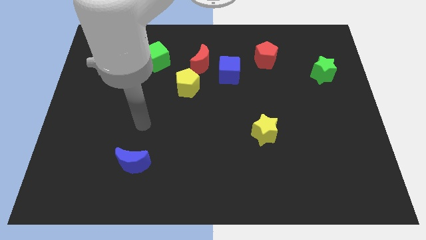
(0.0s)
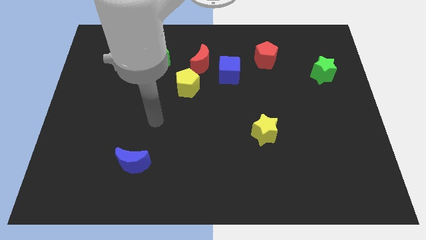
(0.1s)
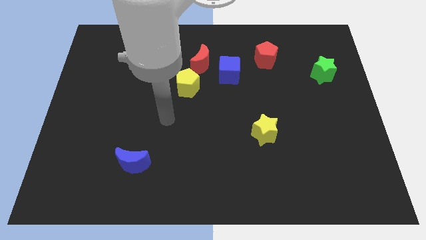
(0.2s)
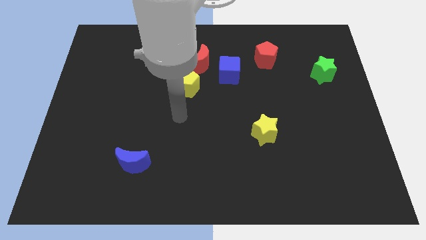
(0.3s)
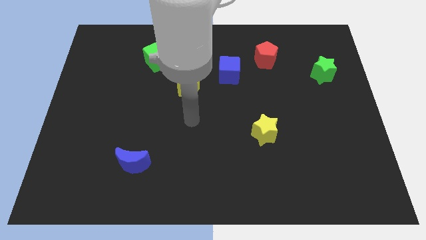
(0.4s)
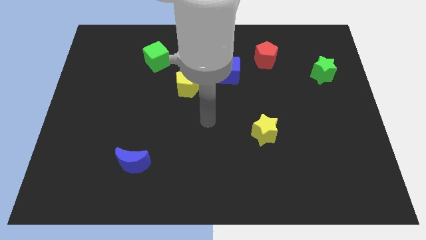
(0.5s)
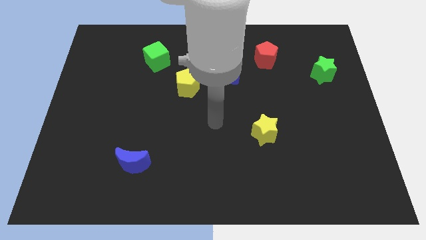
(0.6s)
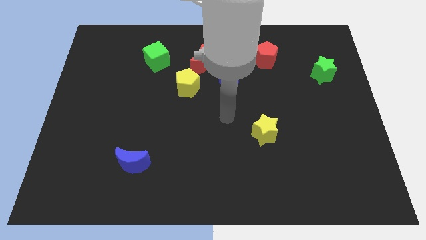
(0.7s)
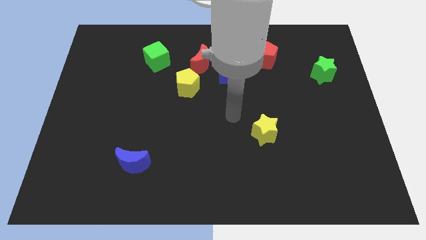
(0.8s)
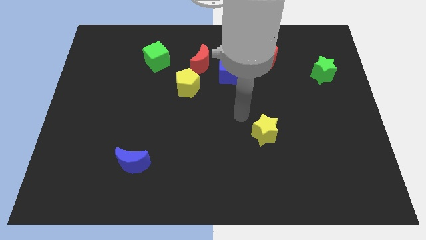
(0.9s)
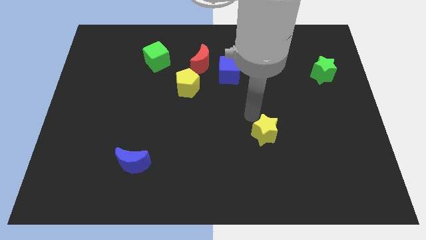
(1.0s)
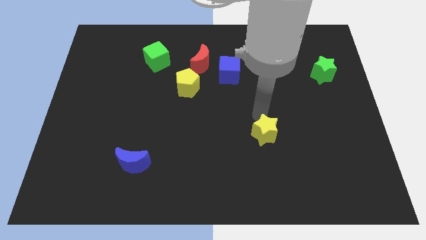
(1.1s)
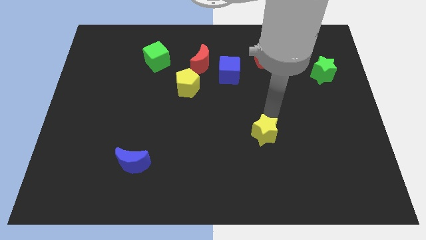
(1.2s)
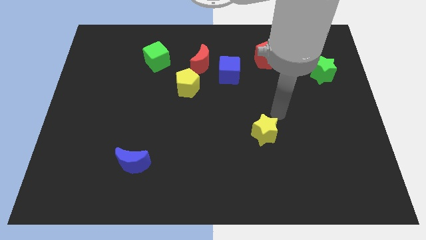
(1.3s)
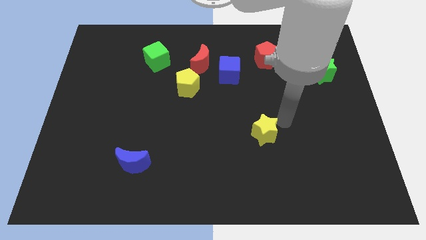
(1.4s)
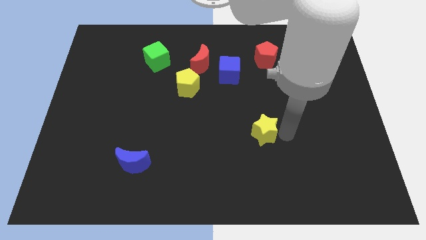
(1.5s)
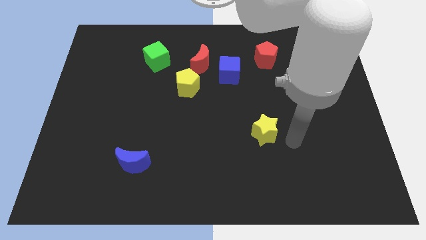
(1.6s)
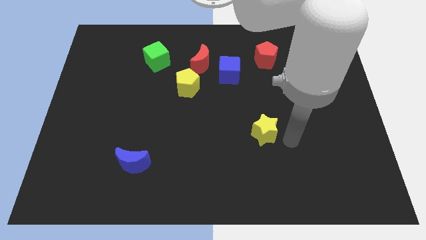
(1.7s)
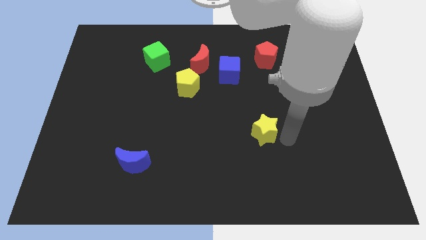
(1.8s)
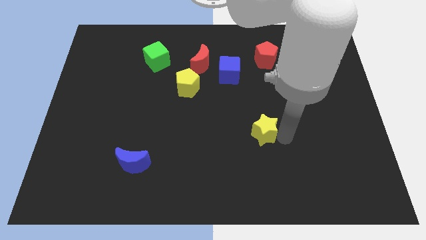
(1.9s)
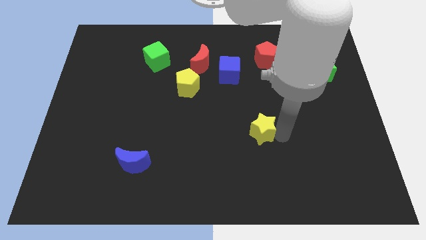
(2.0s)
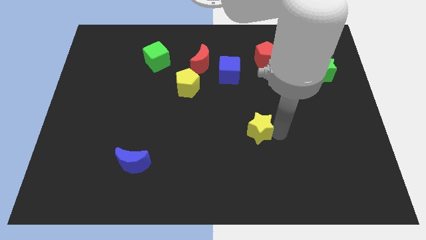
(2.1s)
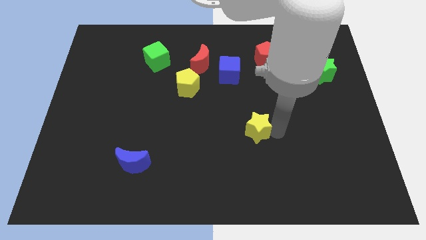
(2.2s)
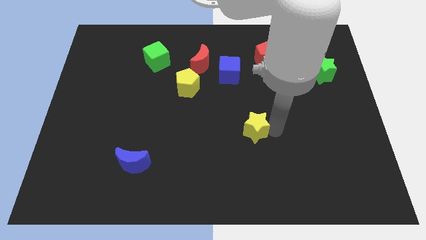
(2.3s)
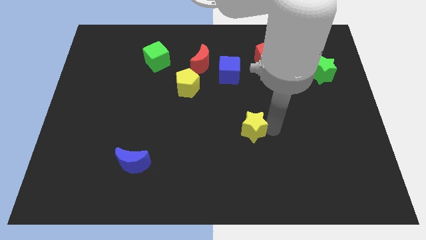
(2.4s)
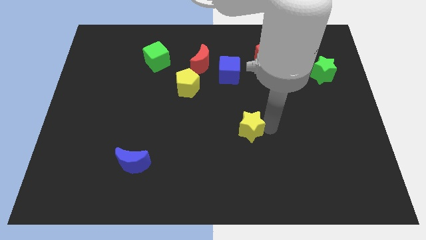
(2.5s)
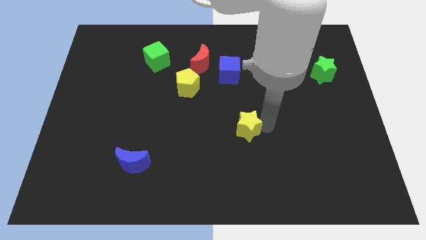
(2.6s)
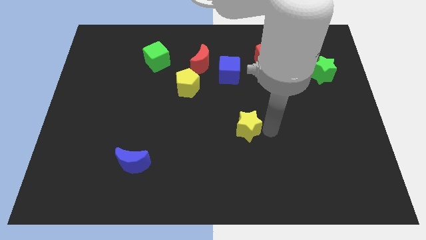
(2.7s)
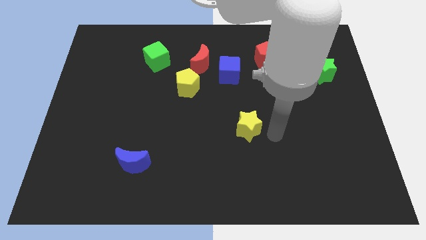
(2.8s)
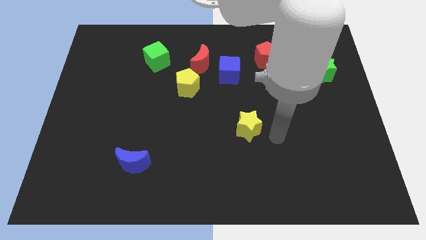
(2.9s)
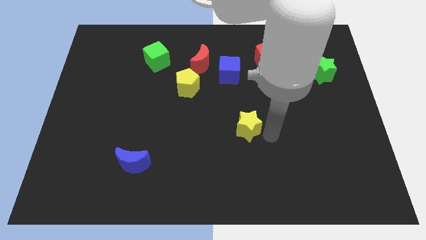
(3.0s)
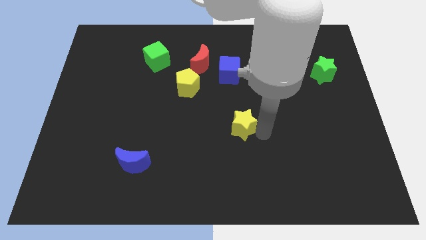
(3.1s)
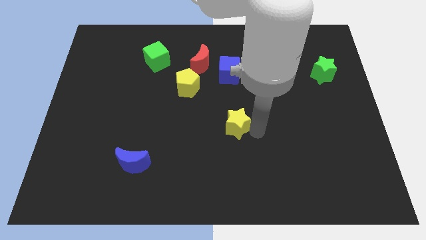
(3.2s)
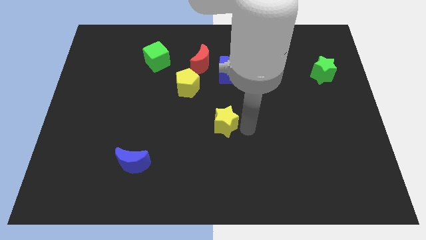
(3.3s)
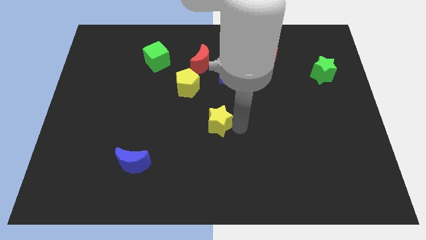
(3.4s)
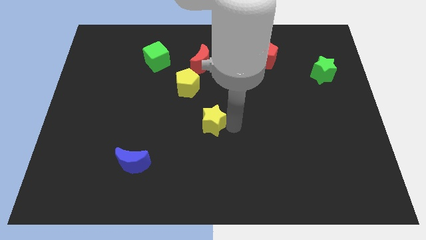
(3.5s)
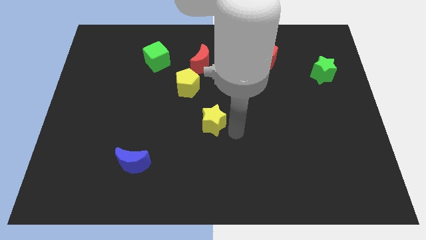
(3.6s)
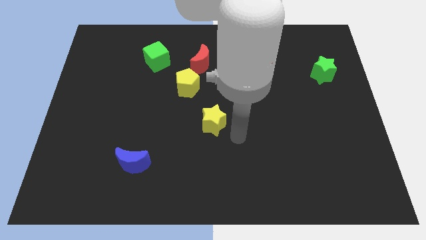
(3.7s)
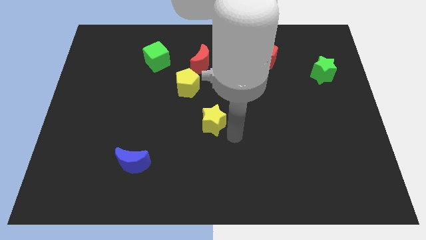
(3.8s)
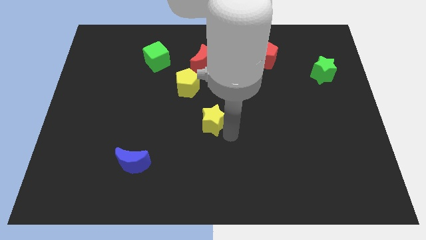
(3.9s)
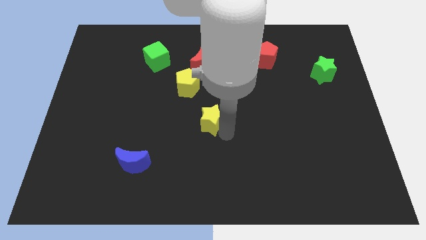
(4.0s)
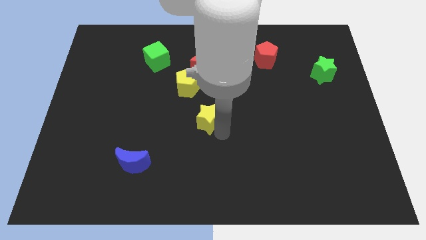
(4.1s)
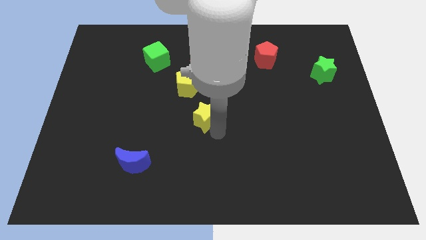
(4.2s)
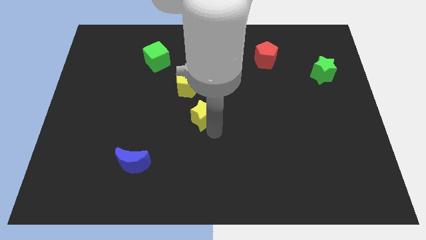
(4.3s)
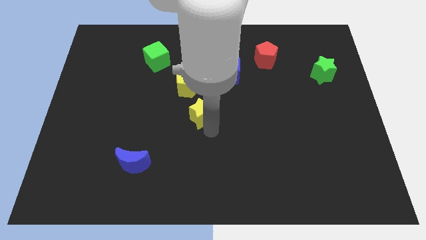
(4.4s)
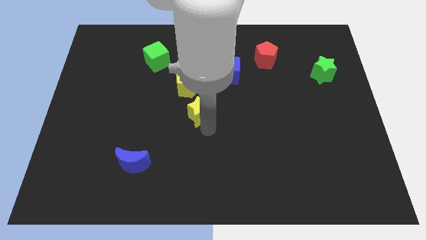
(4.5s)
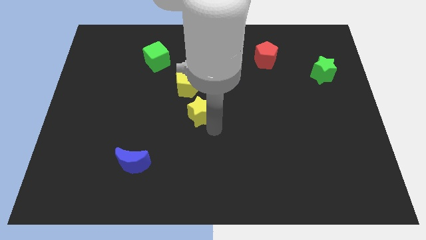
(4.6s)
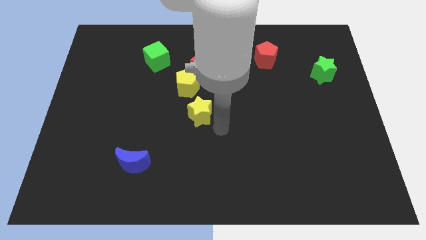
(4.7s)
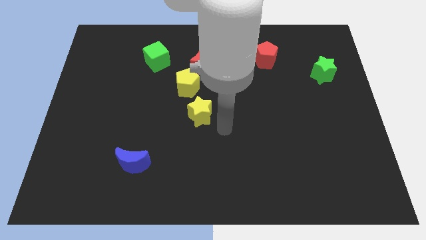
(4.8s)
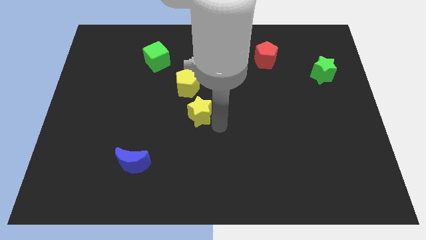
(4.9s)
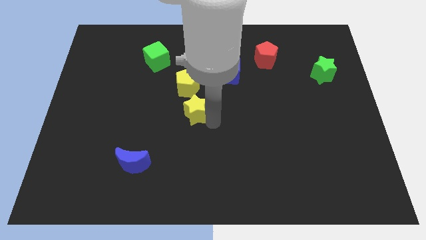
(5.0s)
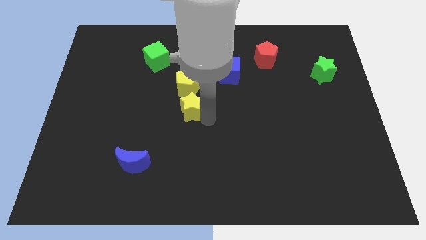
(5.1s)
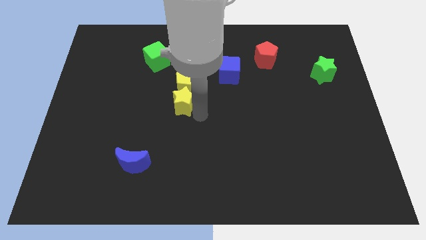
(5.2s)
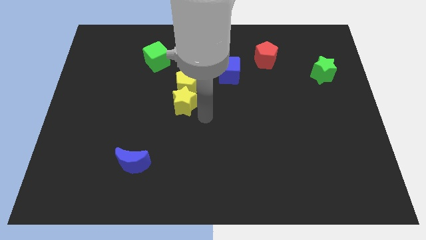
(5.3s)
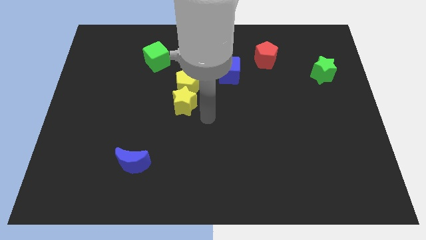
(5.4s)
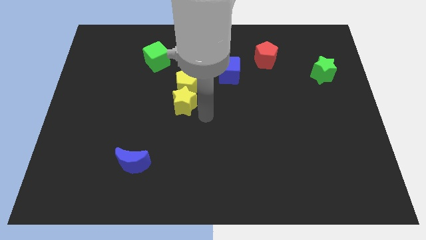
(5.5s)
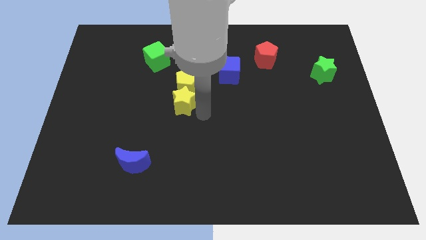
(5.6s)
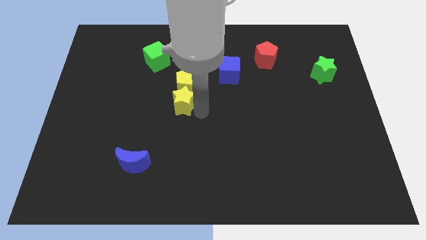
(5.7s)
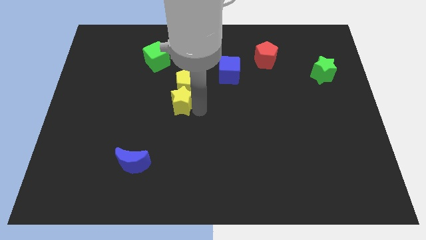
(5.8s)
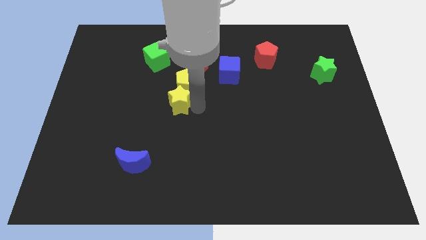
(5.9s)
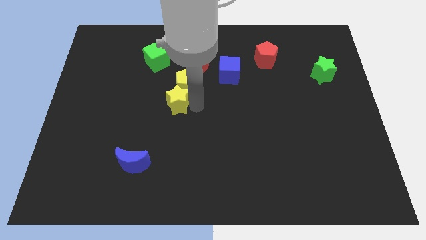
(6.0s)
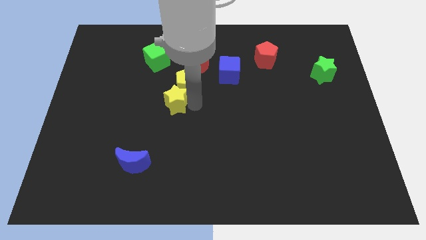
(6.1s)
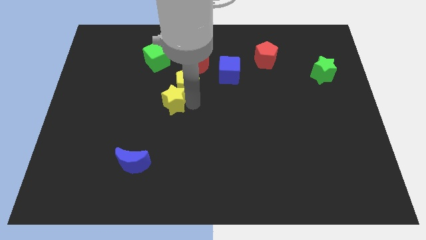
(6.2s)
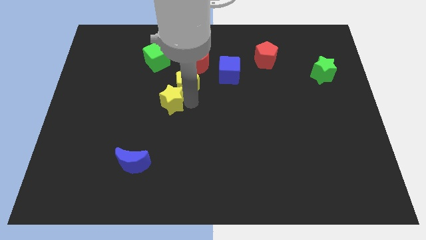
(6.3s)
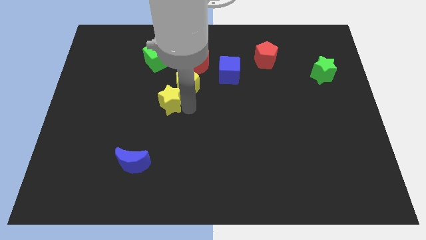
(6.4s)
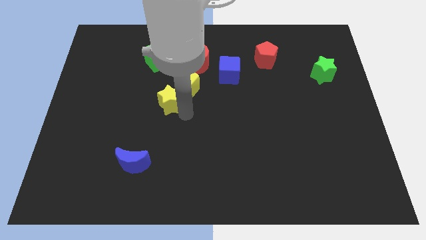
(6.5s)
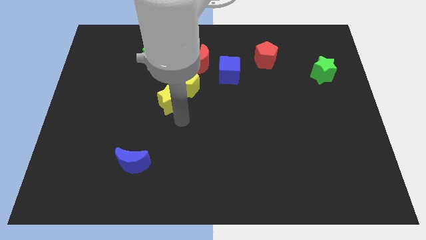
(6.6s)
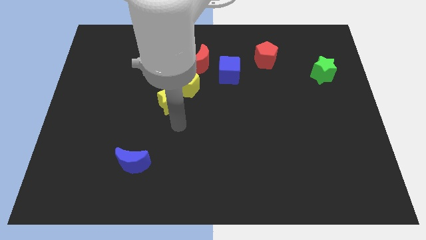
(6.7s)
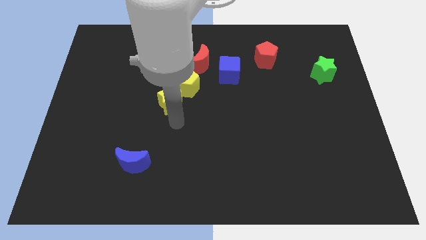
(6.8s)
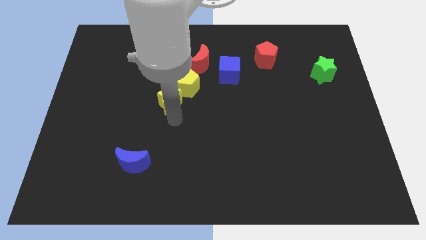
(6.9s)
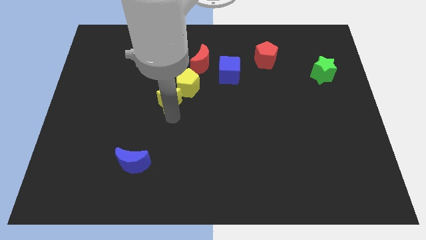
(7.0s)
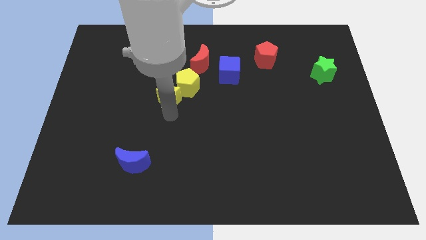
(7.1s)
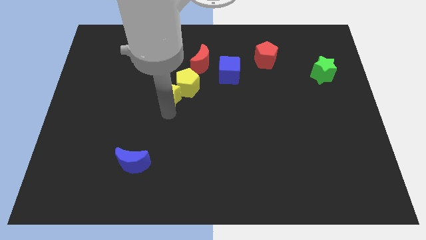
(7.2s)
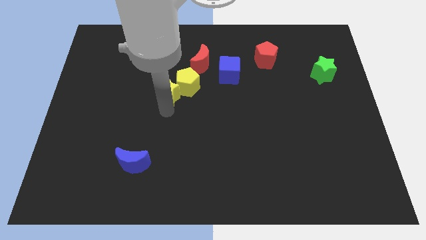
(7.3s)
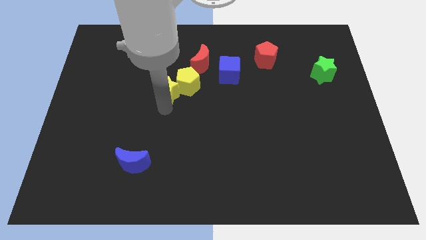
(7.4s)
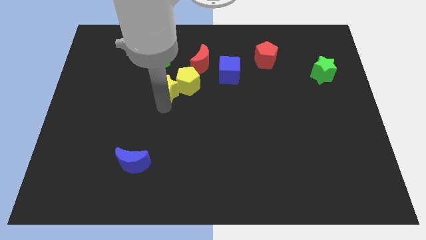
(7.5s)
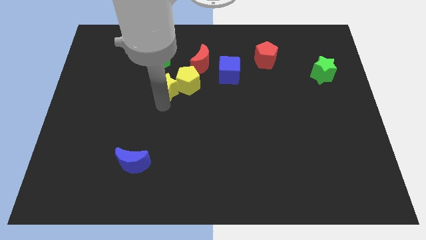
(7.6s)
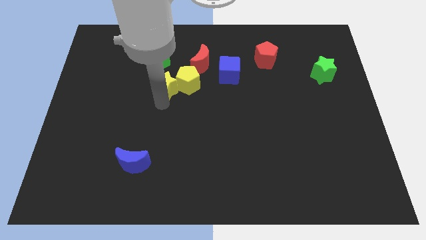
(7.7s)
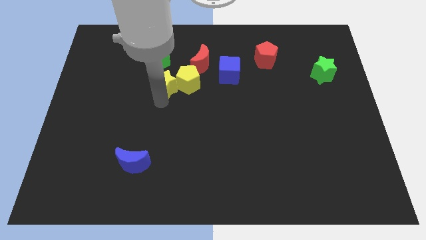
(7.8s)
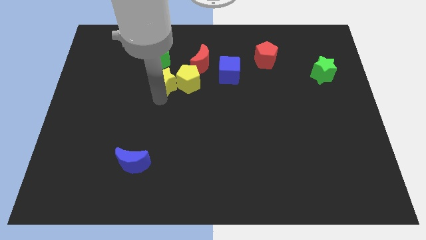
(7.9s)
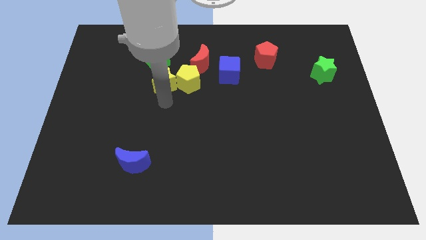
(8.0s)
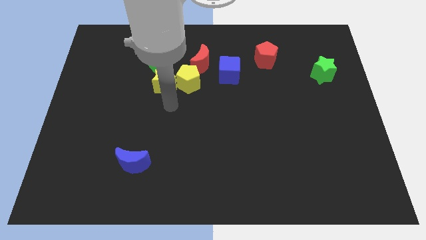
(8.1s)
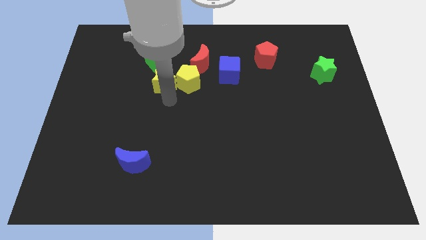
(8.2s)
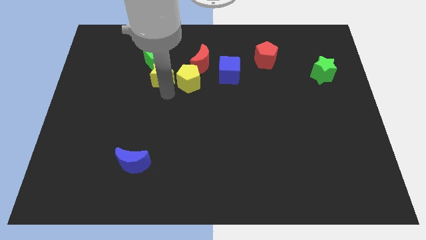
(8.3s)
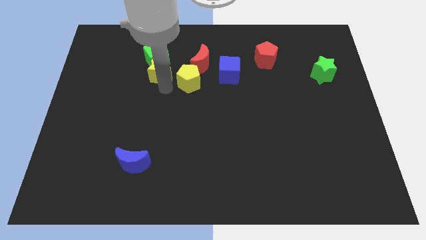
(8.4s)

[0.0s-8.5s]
slide the yellow star next to the green cube
